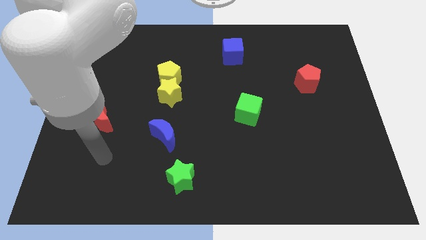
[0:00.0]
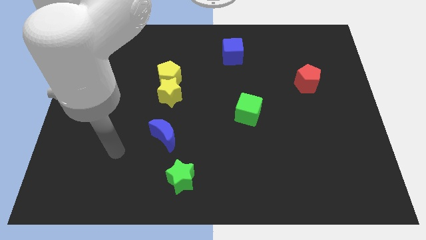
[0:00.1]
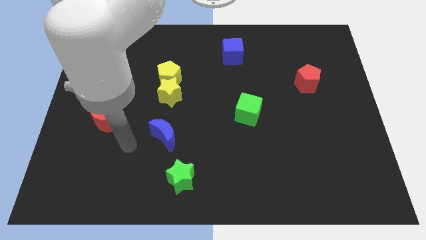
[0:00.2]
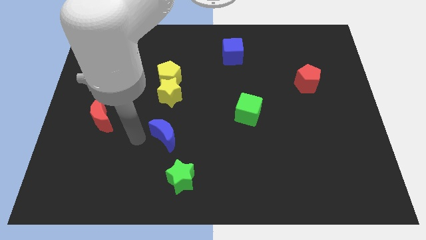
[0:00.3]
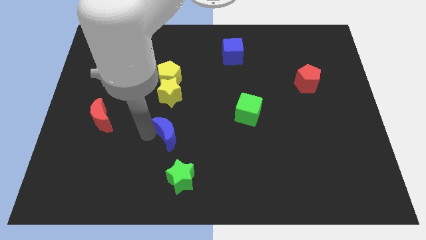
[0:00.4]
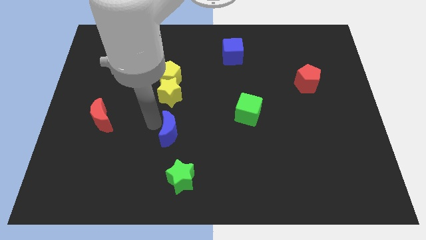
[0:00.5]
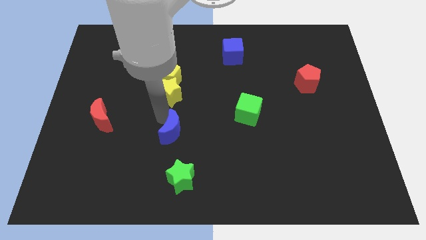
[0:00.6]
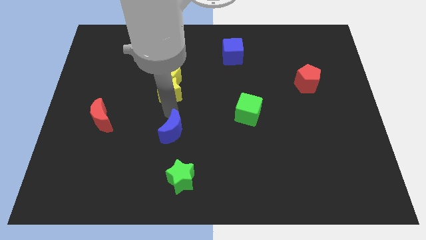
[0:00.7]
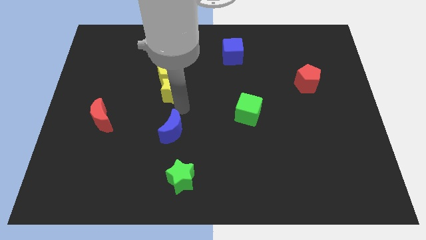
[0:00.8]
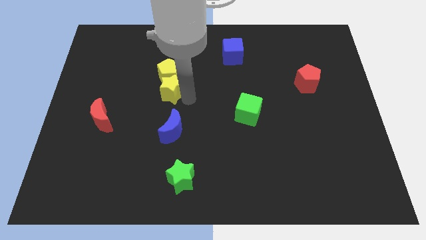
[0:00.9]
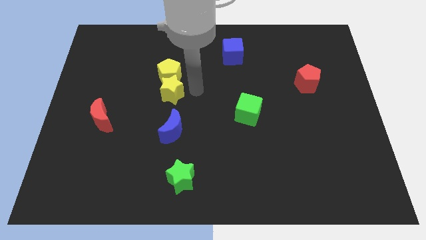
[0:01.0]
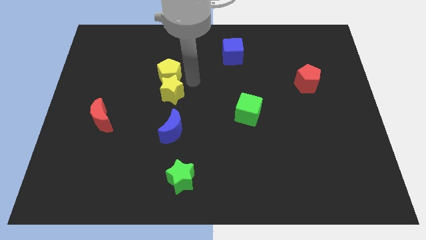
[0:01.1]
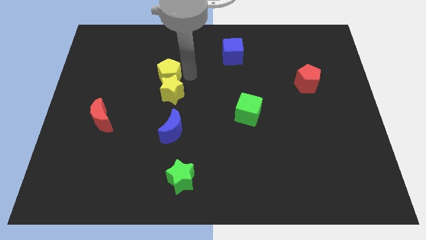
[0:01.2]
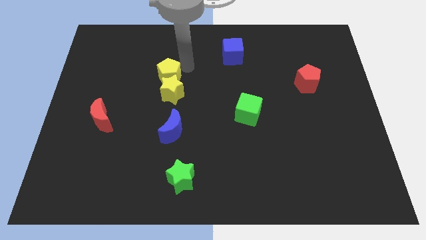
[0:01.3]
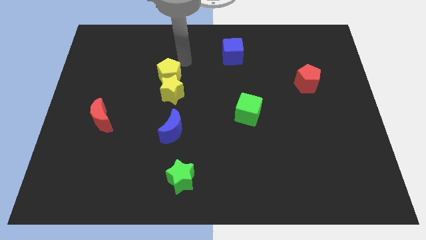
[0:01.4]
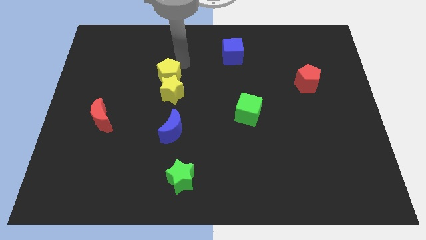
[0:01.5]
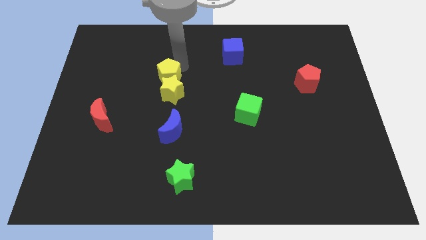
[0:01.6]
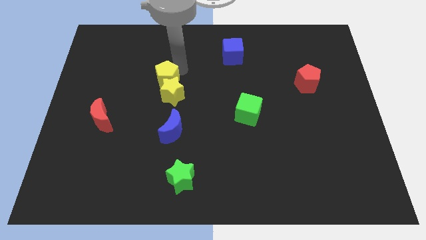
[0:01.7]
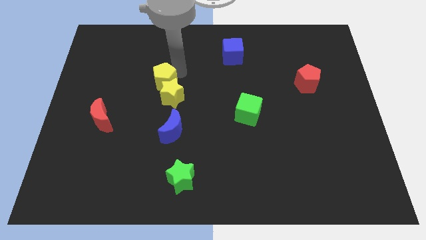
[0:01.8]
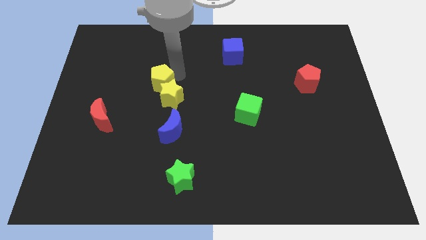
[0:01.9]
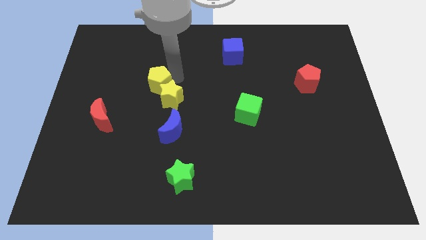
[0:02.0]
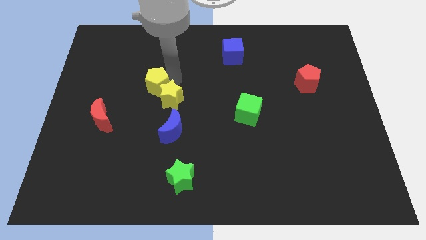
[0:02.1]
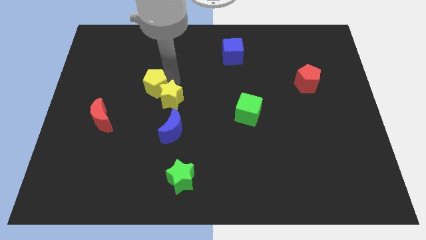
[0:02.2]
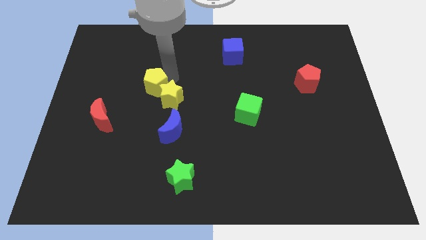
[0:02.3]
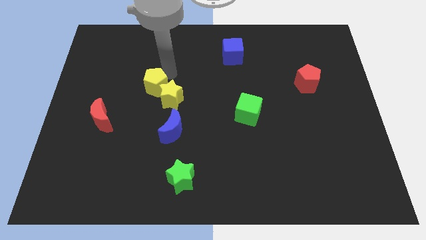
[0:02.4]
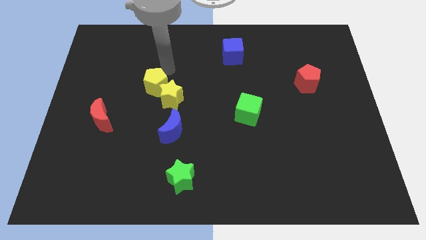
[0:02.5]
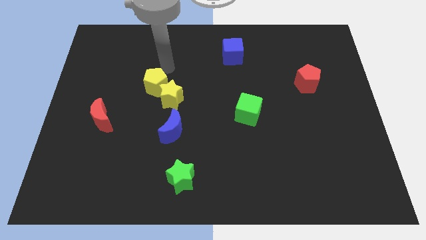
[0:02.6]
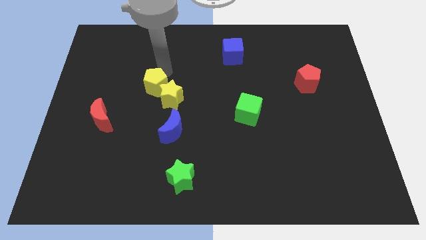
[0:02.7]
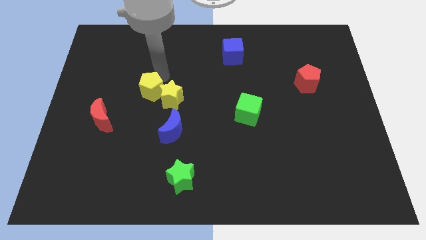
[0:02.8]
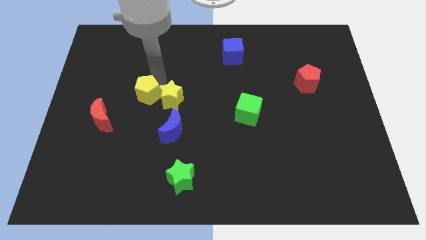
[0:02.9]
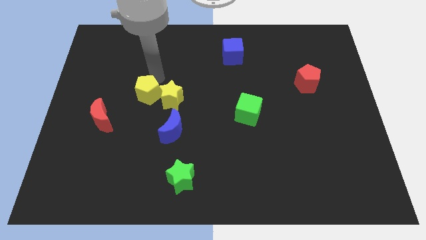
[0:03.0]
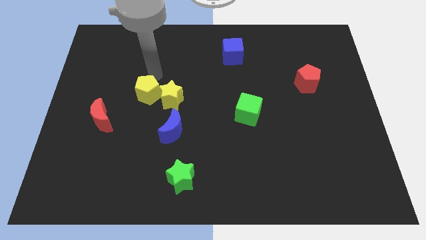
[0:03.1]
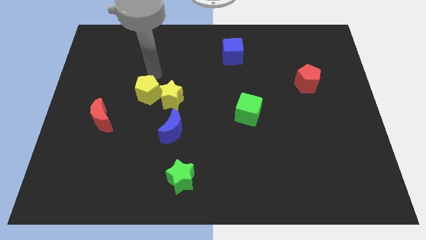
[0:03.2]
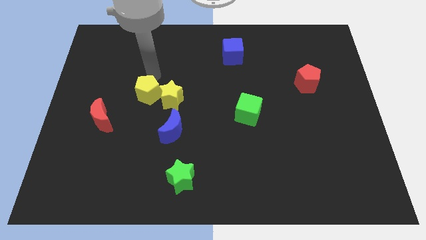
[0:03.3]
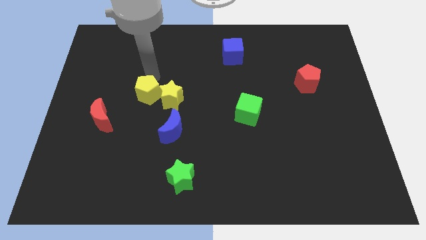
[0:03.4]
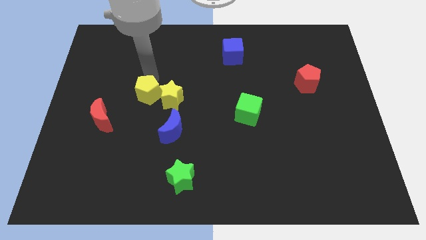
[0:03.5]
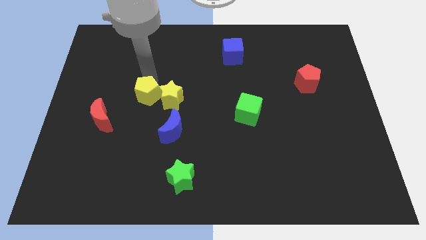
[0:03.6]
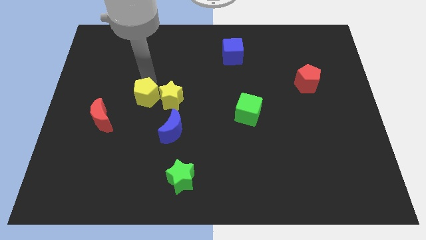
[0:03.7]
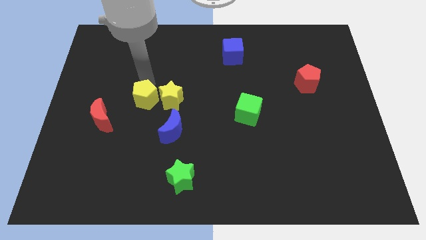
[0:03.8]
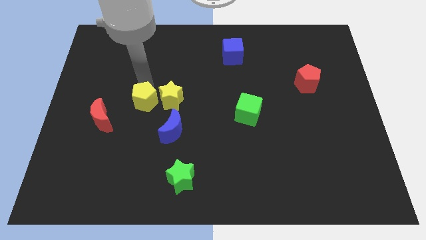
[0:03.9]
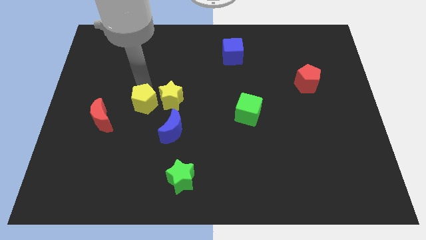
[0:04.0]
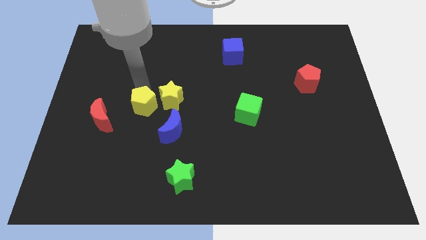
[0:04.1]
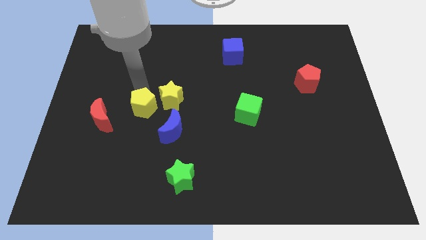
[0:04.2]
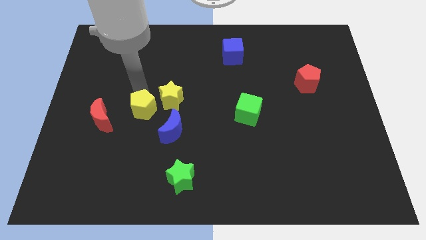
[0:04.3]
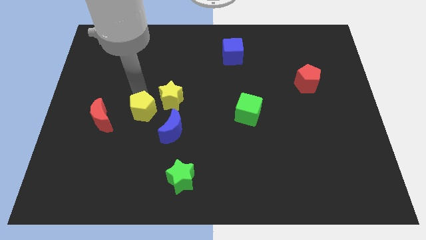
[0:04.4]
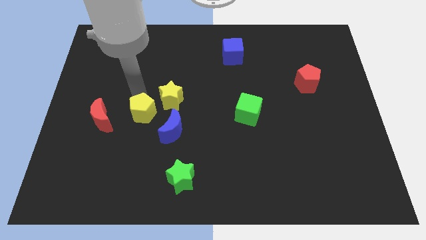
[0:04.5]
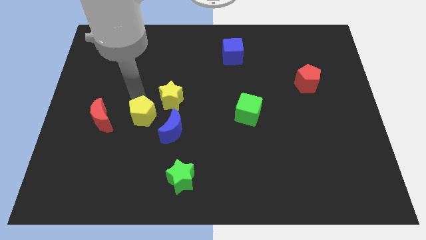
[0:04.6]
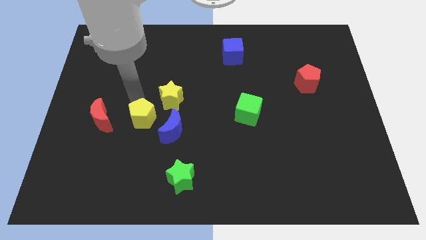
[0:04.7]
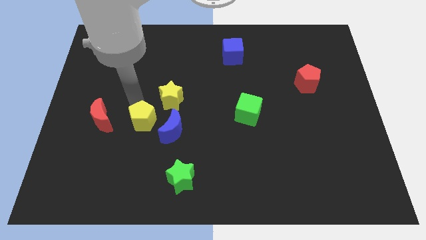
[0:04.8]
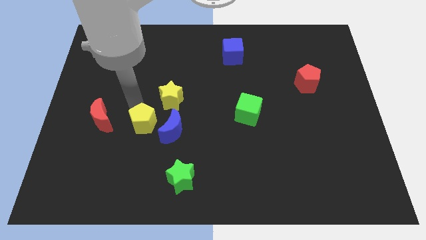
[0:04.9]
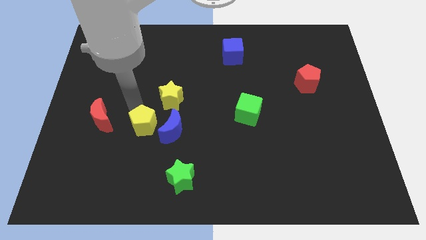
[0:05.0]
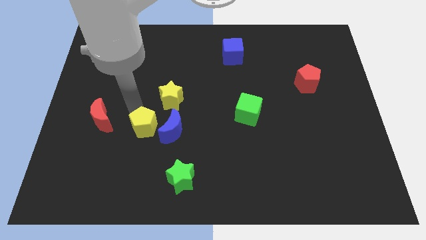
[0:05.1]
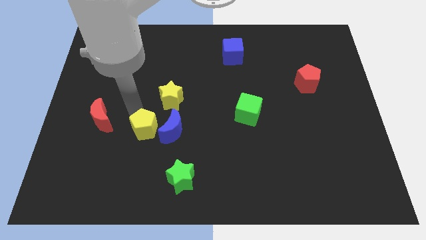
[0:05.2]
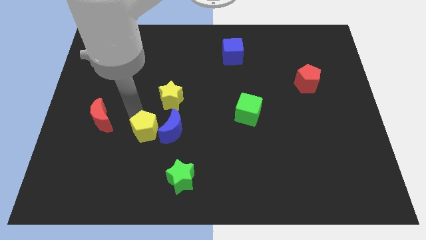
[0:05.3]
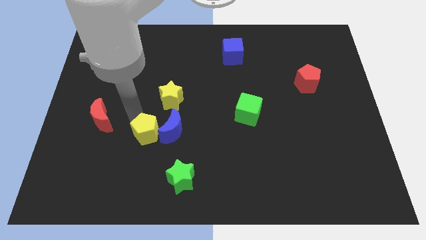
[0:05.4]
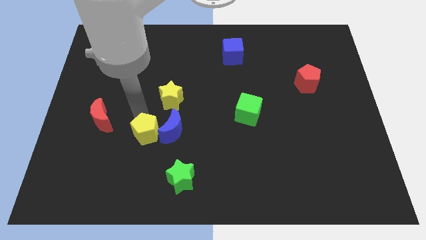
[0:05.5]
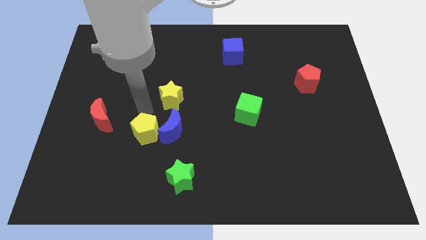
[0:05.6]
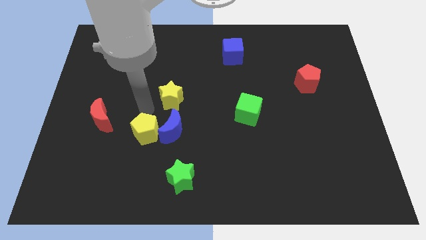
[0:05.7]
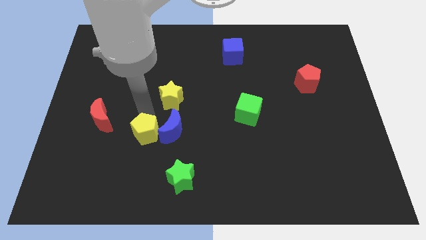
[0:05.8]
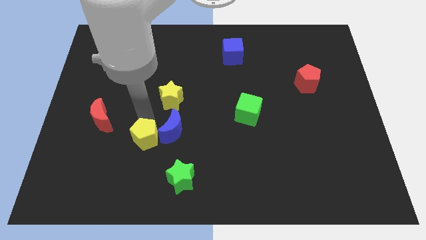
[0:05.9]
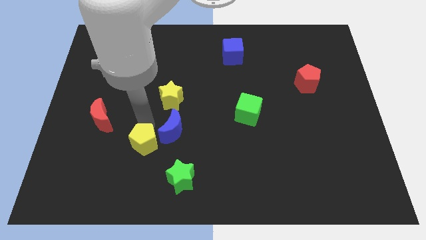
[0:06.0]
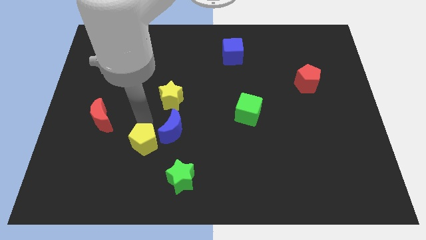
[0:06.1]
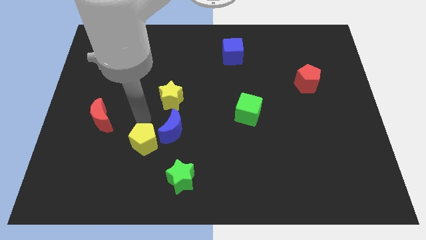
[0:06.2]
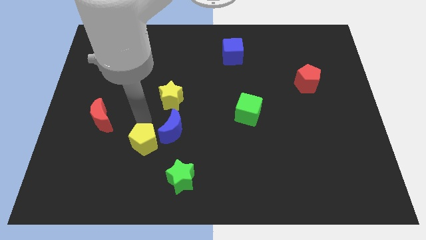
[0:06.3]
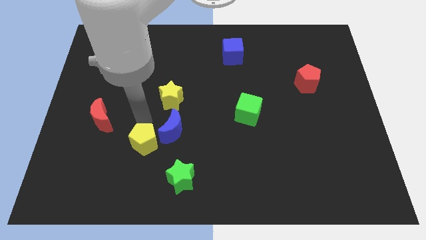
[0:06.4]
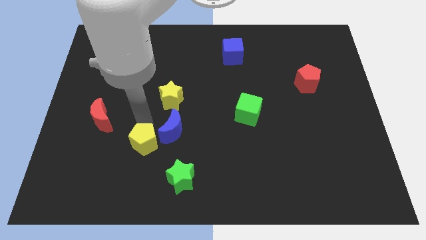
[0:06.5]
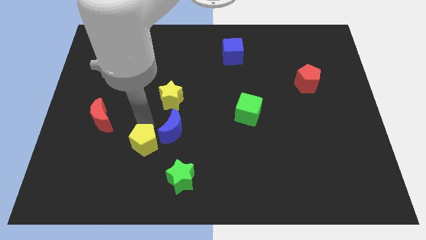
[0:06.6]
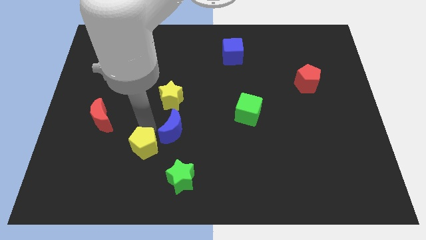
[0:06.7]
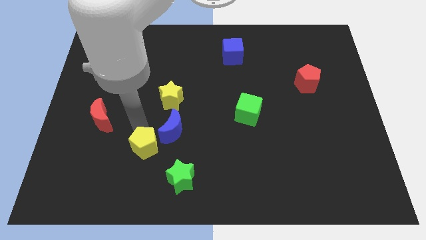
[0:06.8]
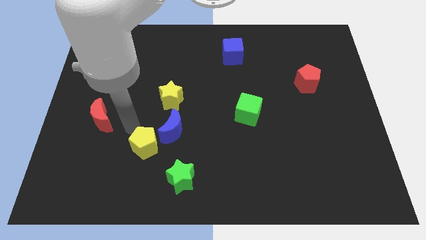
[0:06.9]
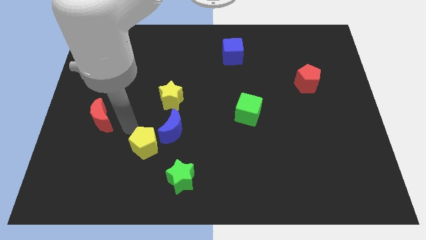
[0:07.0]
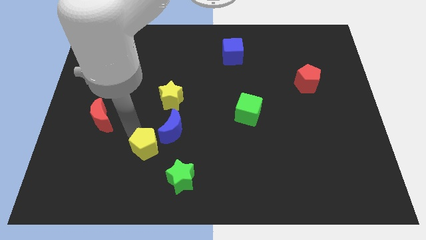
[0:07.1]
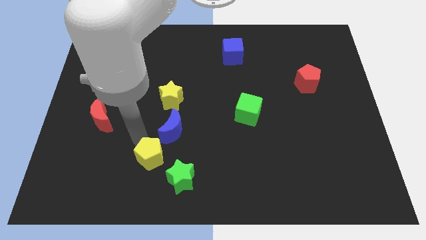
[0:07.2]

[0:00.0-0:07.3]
move the yellow pentagon to the bottom of the blue moon
